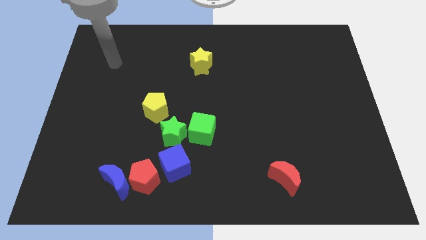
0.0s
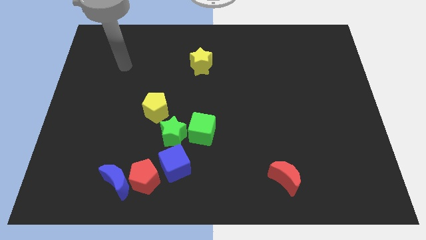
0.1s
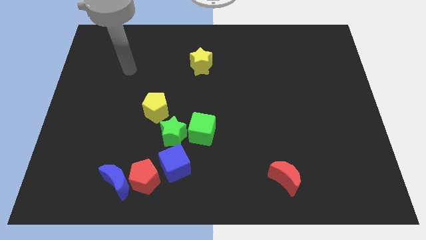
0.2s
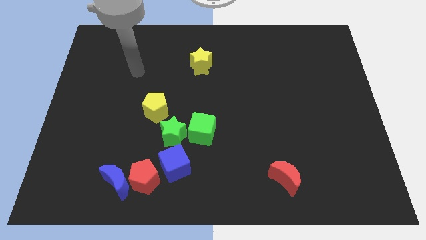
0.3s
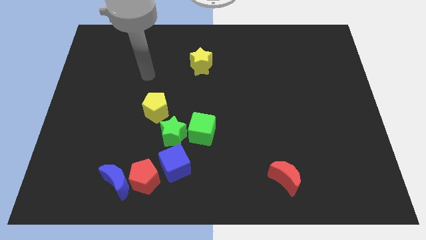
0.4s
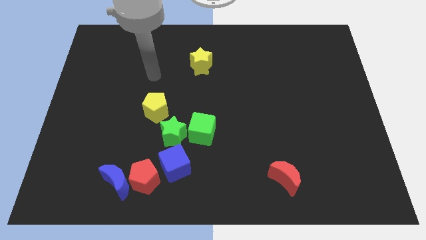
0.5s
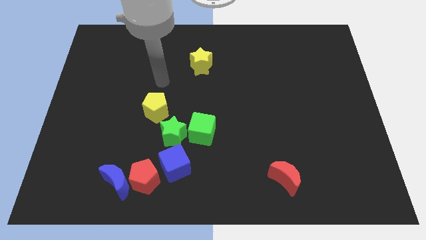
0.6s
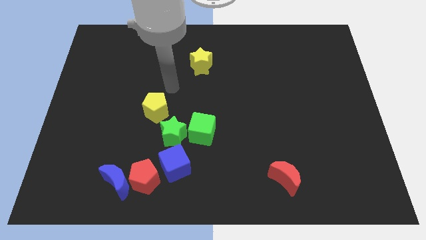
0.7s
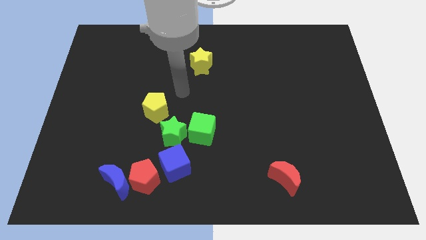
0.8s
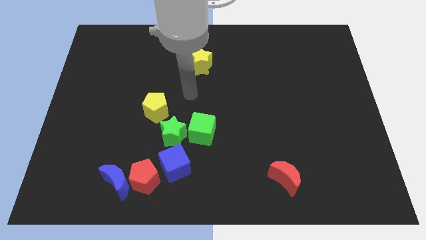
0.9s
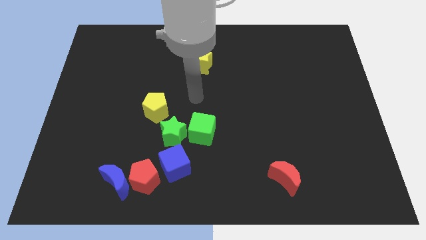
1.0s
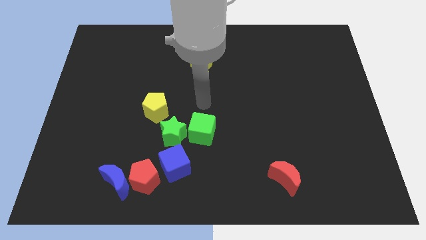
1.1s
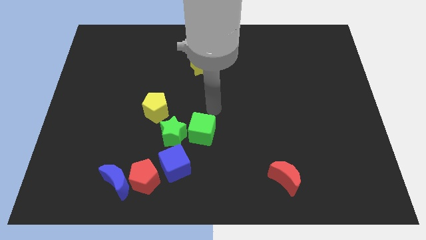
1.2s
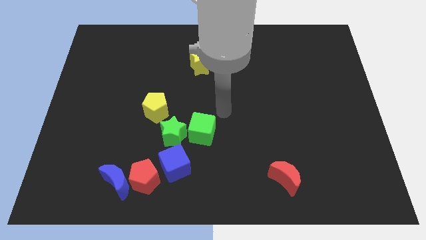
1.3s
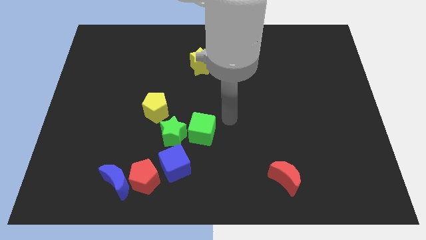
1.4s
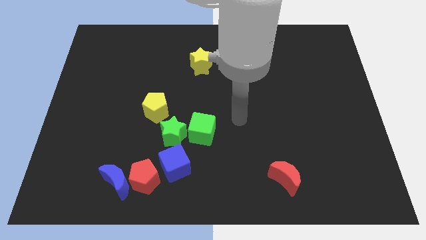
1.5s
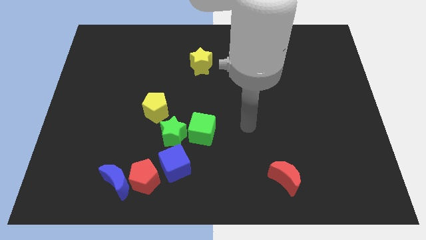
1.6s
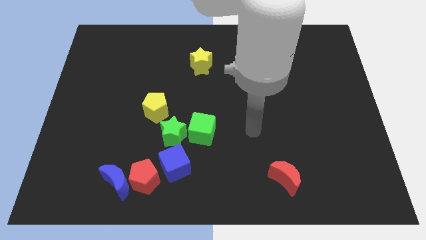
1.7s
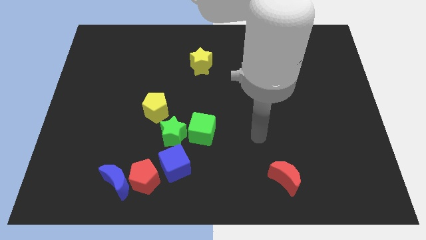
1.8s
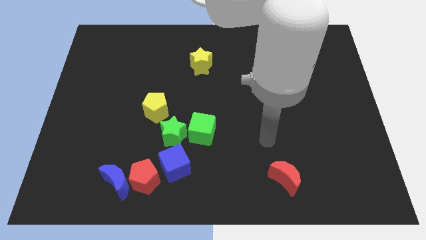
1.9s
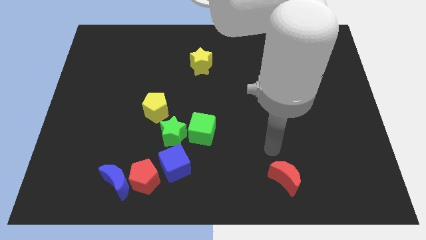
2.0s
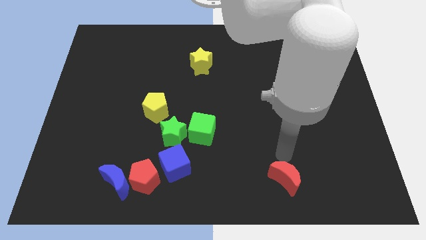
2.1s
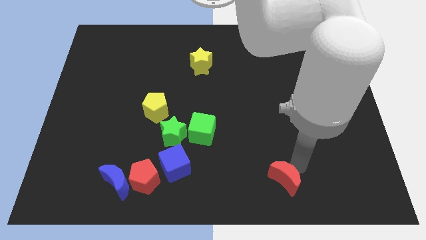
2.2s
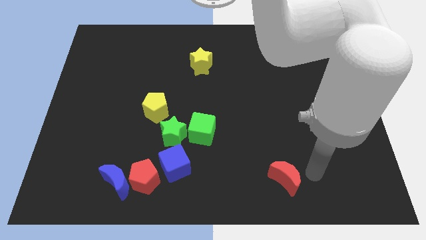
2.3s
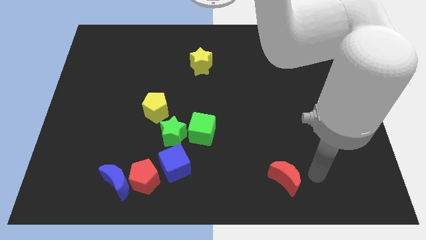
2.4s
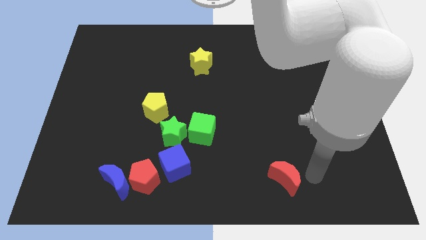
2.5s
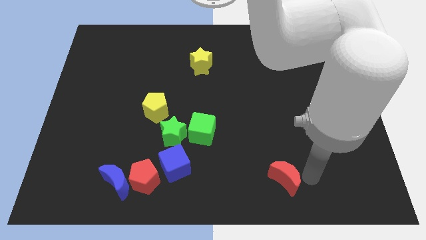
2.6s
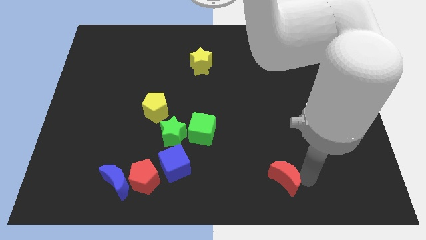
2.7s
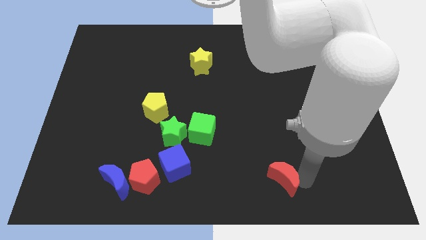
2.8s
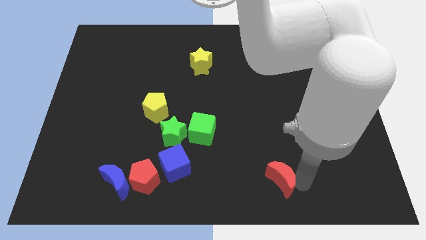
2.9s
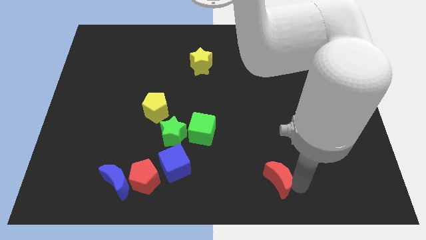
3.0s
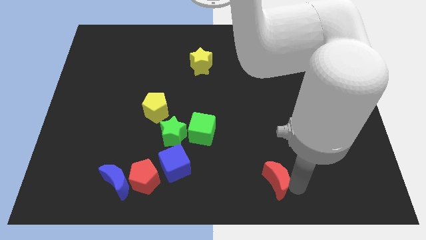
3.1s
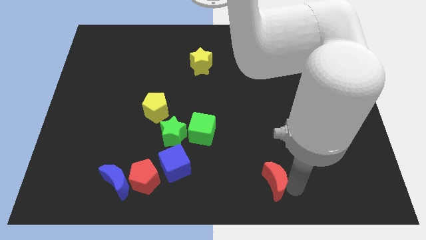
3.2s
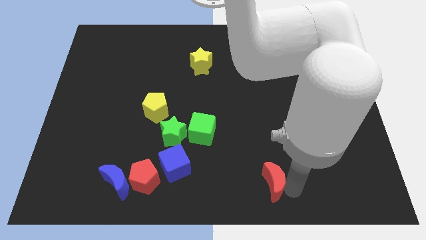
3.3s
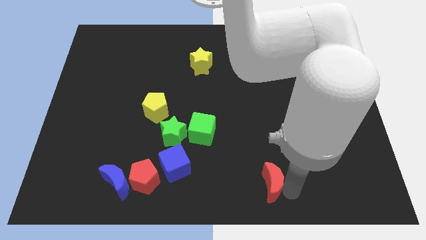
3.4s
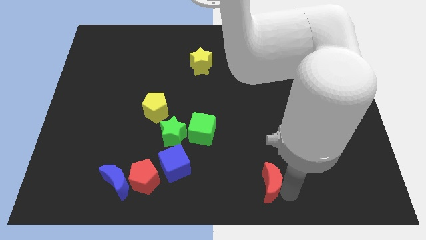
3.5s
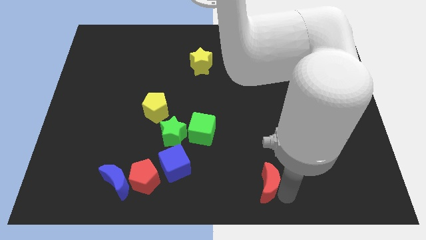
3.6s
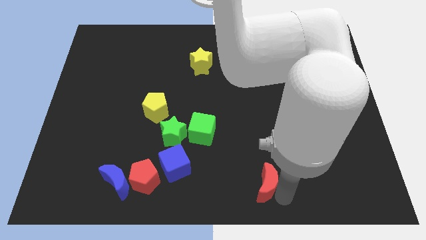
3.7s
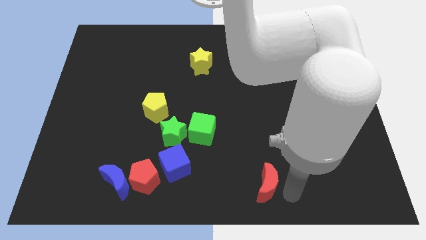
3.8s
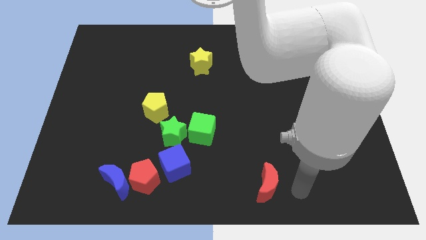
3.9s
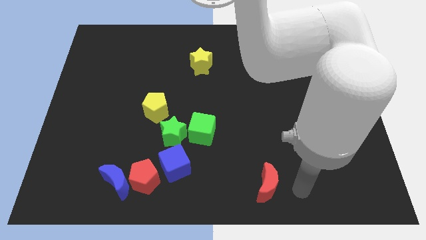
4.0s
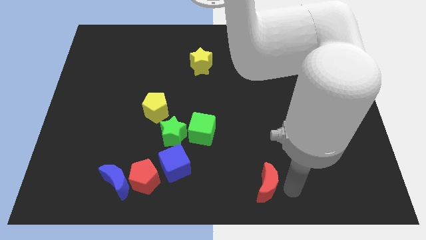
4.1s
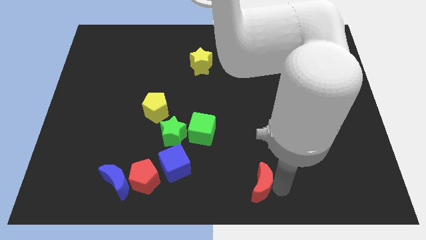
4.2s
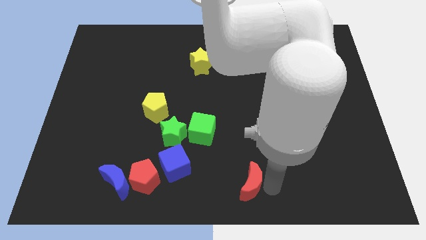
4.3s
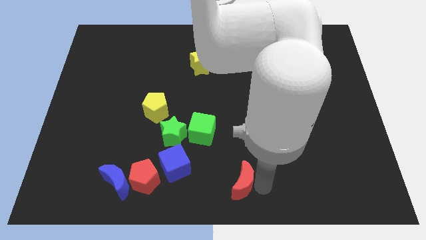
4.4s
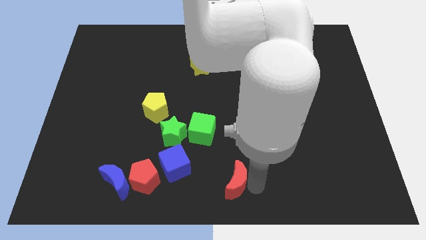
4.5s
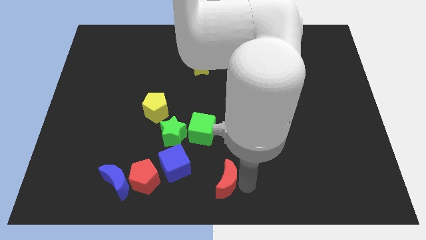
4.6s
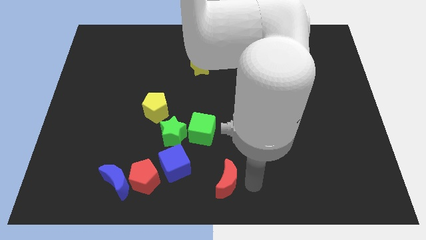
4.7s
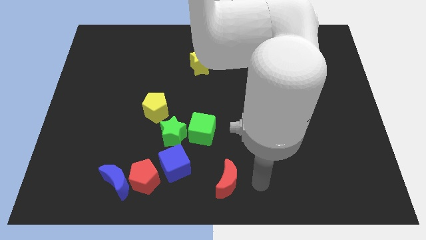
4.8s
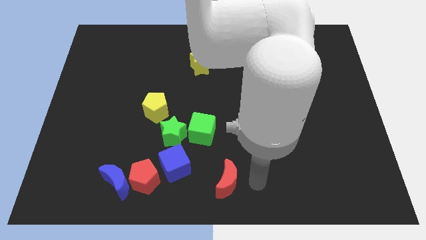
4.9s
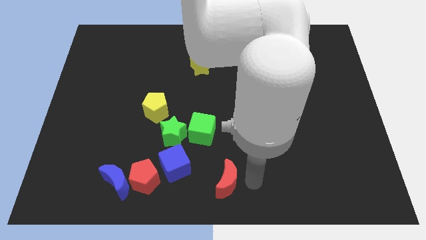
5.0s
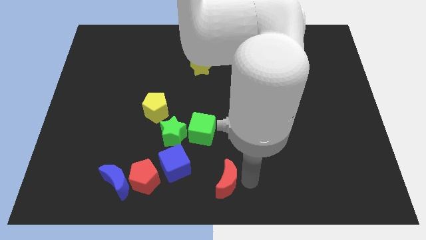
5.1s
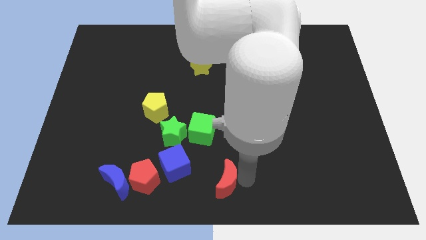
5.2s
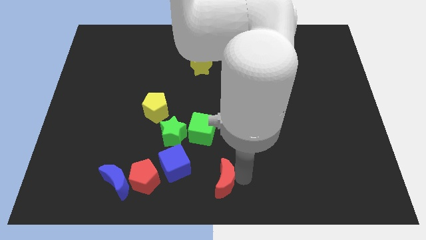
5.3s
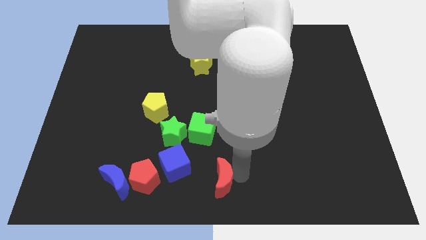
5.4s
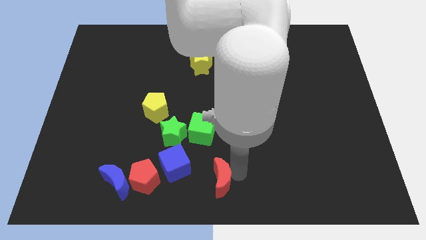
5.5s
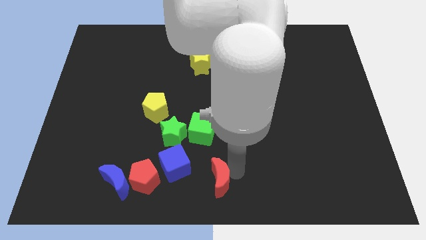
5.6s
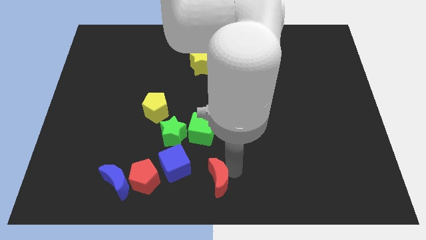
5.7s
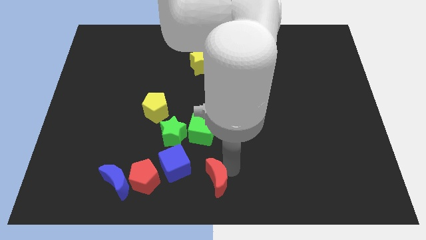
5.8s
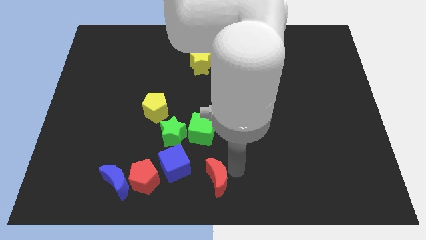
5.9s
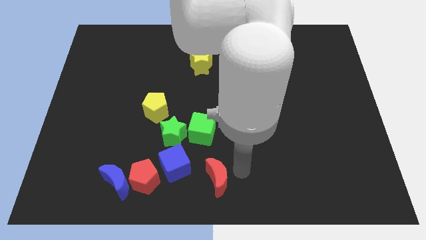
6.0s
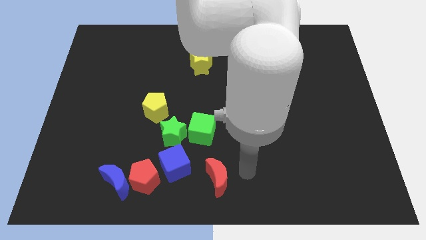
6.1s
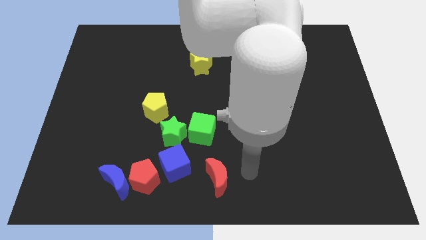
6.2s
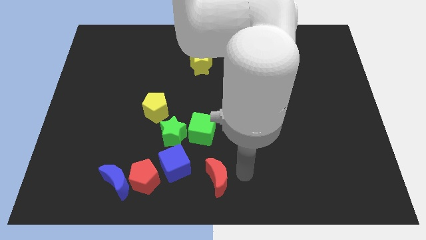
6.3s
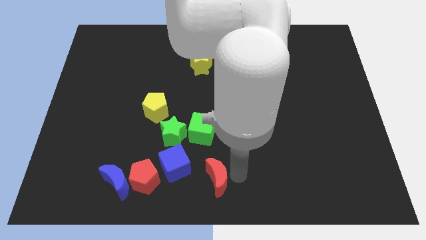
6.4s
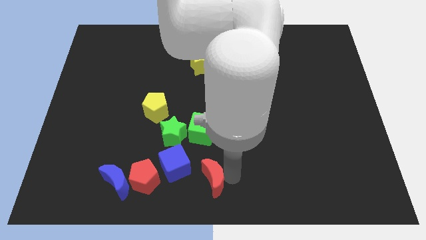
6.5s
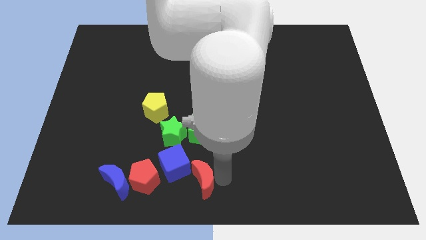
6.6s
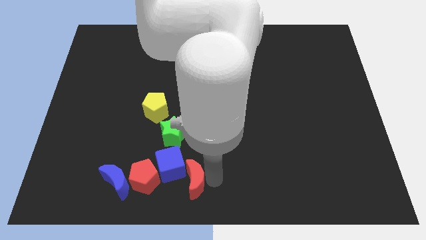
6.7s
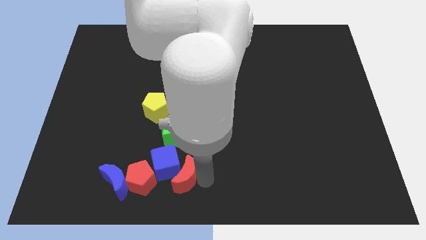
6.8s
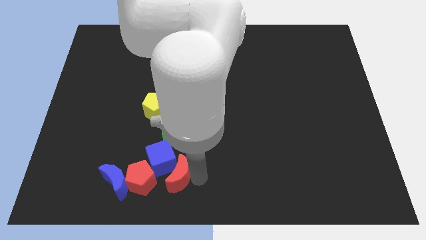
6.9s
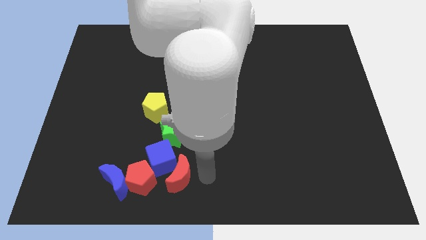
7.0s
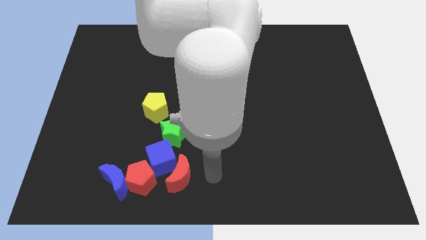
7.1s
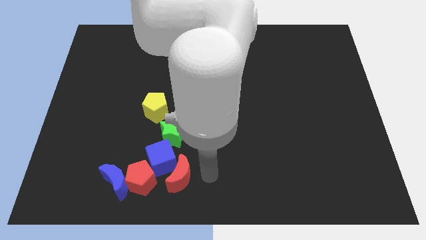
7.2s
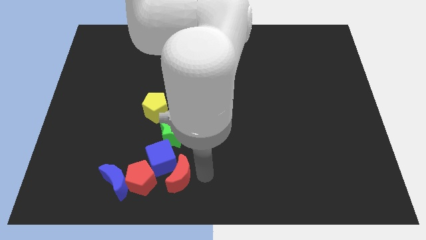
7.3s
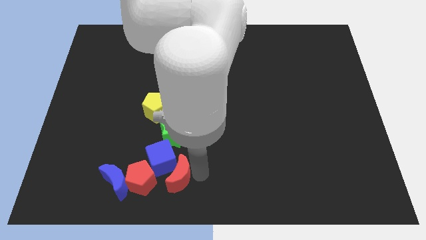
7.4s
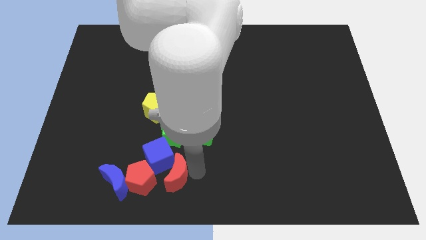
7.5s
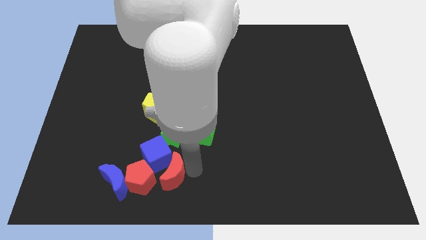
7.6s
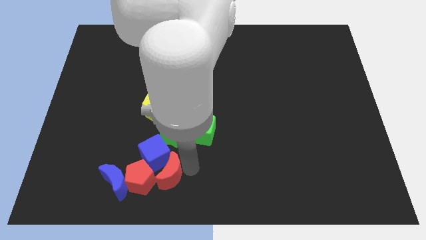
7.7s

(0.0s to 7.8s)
put the red moon to the red pentagon
